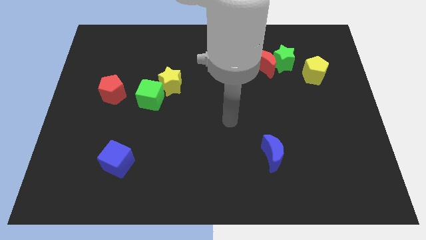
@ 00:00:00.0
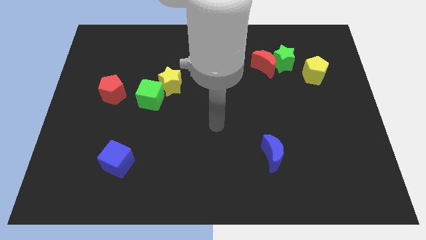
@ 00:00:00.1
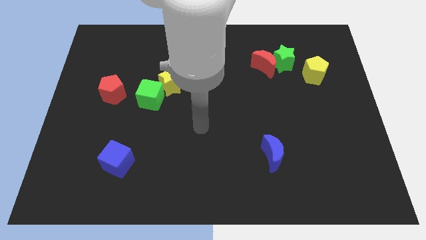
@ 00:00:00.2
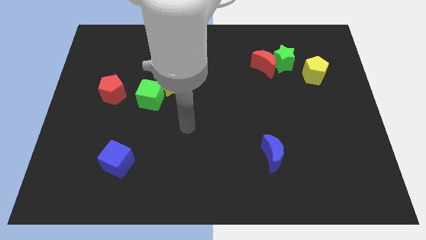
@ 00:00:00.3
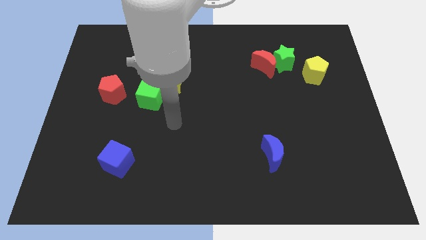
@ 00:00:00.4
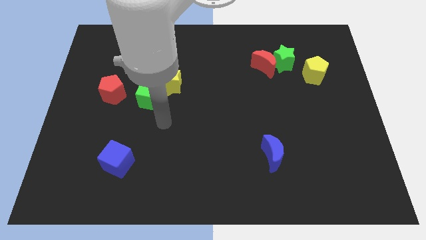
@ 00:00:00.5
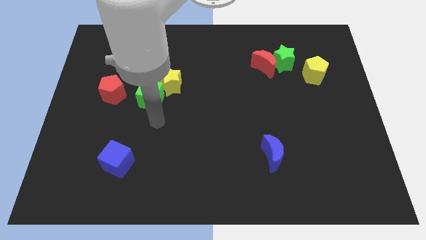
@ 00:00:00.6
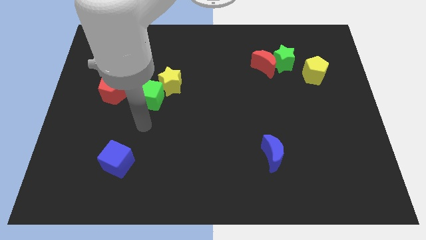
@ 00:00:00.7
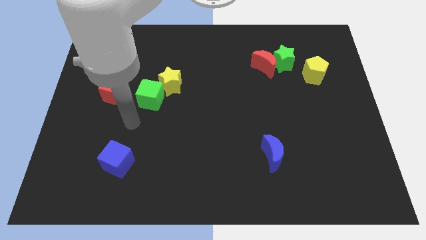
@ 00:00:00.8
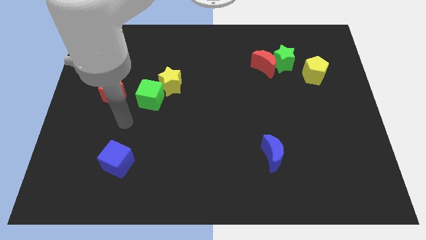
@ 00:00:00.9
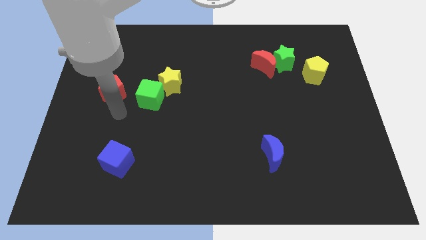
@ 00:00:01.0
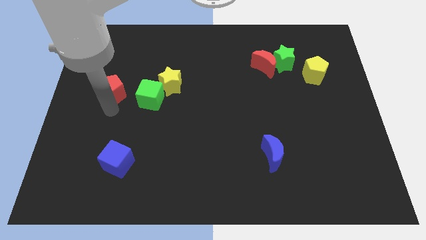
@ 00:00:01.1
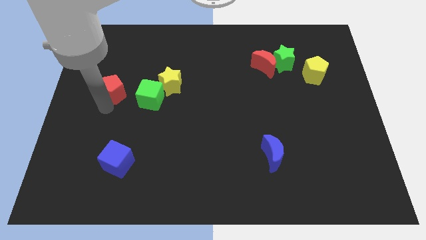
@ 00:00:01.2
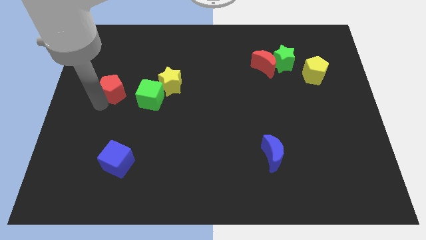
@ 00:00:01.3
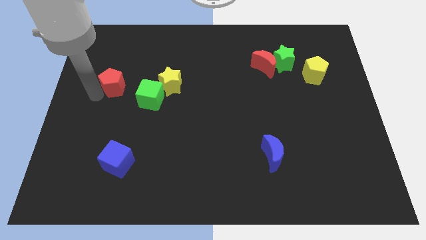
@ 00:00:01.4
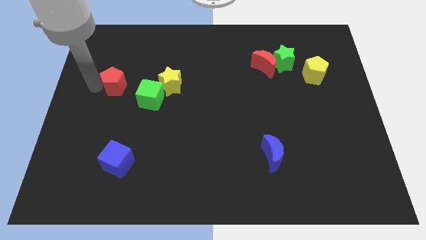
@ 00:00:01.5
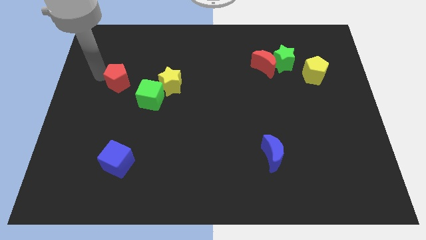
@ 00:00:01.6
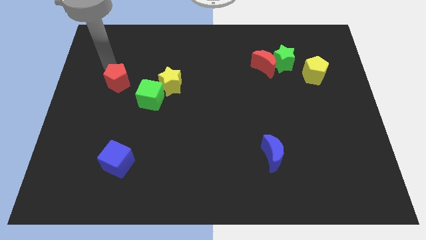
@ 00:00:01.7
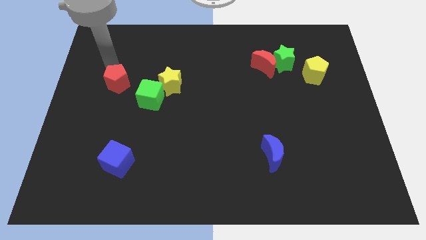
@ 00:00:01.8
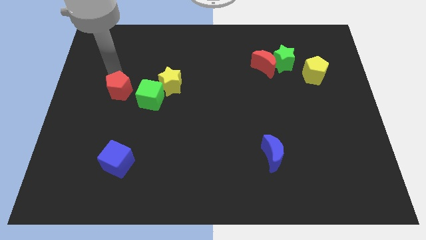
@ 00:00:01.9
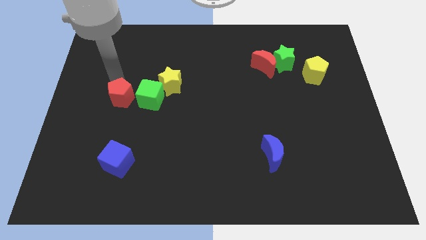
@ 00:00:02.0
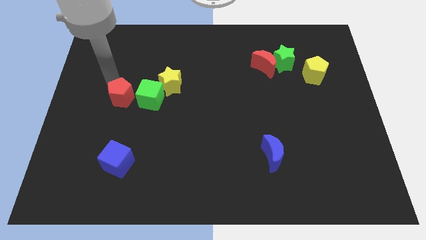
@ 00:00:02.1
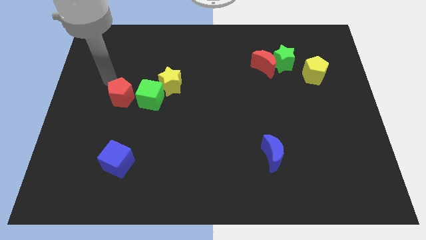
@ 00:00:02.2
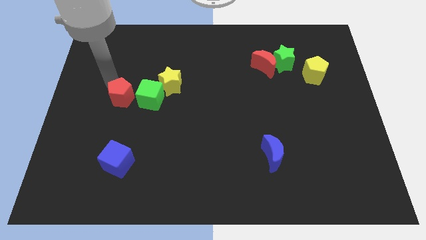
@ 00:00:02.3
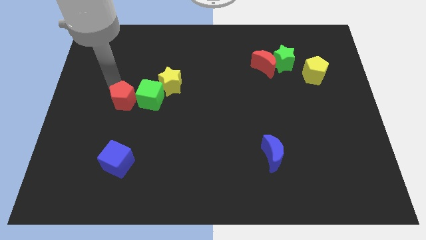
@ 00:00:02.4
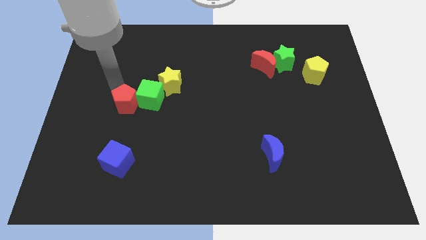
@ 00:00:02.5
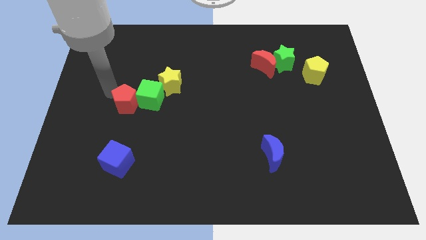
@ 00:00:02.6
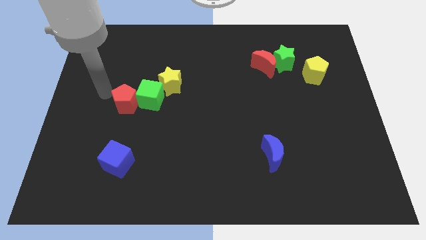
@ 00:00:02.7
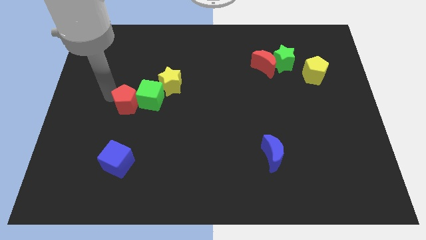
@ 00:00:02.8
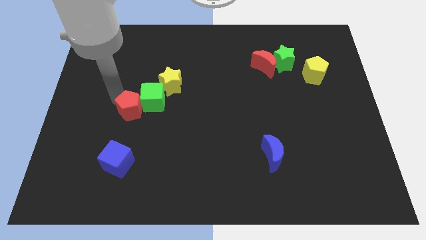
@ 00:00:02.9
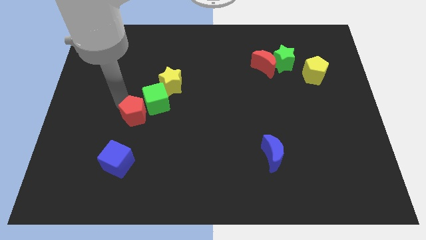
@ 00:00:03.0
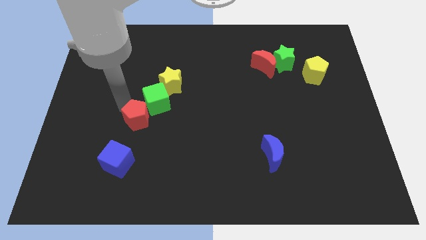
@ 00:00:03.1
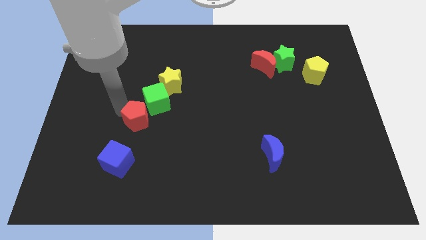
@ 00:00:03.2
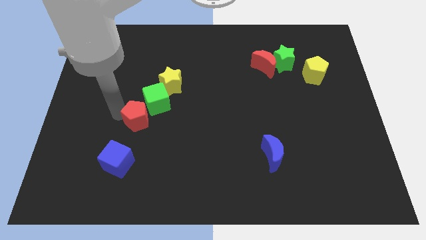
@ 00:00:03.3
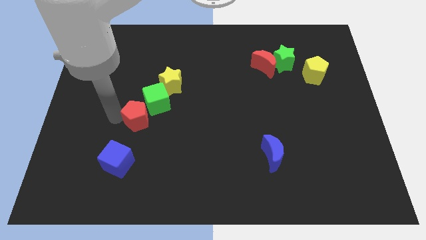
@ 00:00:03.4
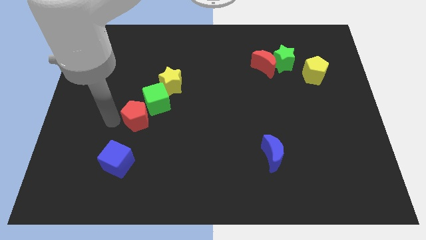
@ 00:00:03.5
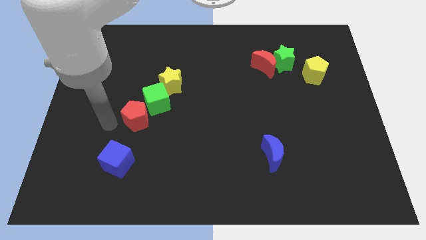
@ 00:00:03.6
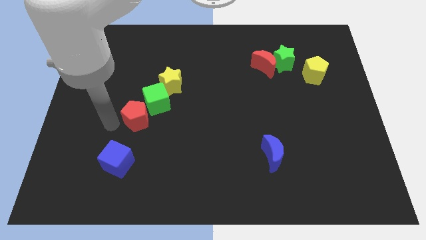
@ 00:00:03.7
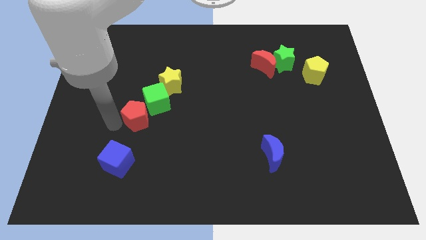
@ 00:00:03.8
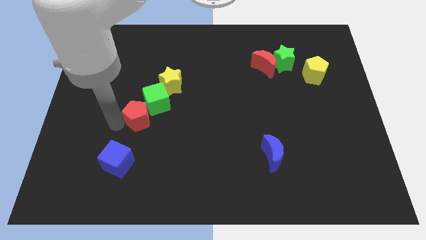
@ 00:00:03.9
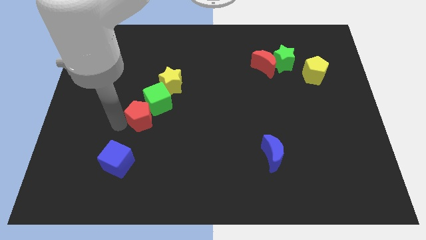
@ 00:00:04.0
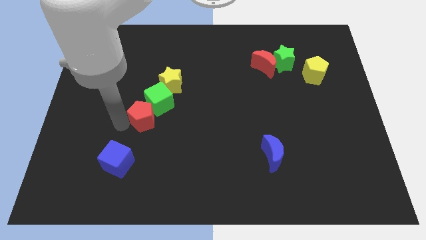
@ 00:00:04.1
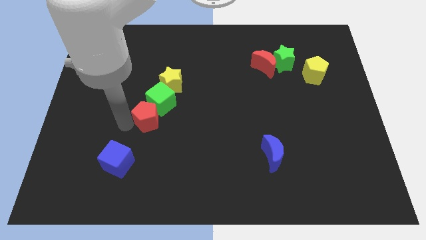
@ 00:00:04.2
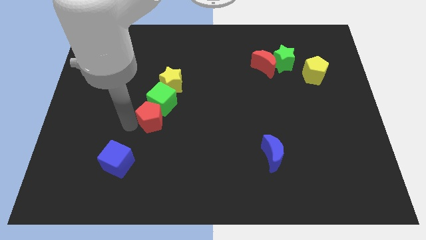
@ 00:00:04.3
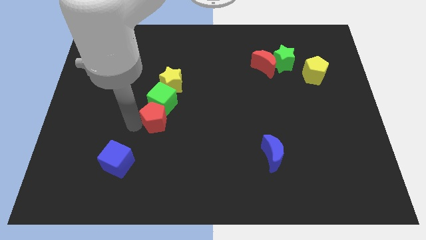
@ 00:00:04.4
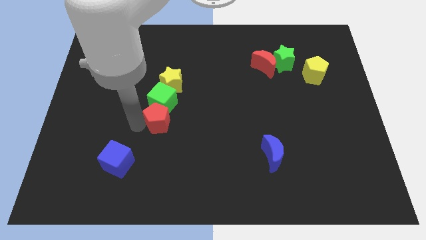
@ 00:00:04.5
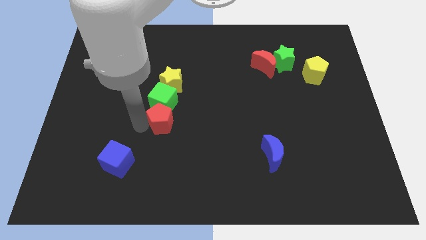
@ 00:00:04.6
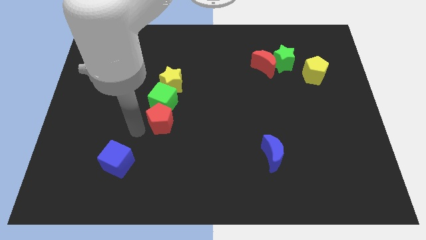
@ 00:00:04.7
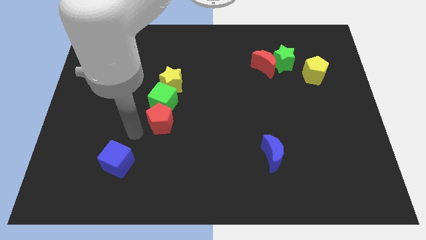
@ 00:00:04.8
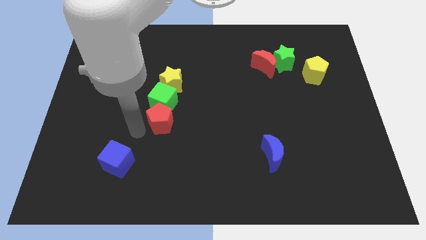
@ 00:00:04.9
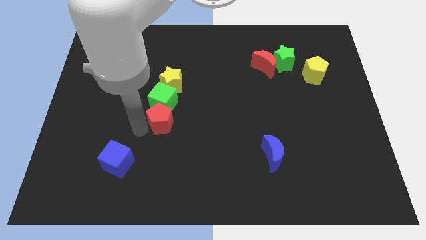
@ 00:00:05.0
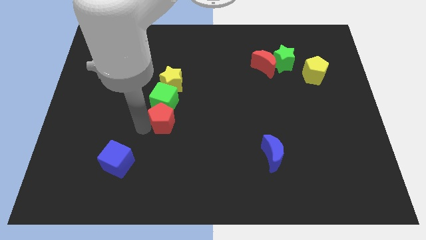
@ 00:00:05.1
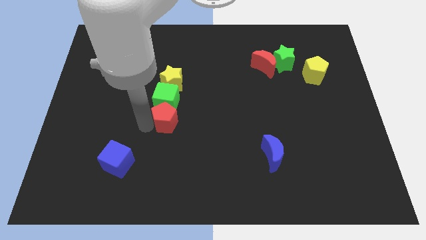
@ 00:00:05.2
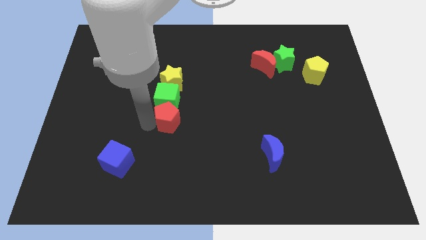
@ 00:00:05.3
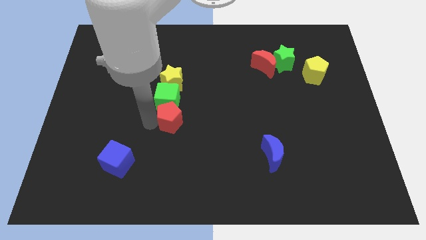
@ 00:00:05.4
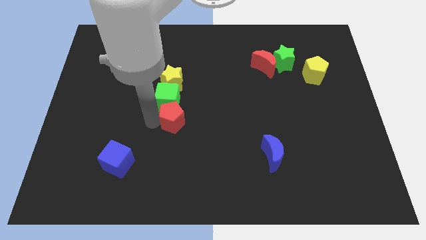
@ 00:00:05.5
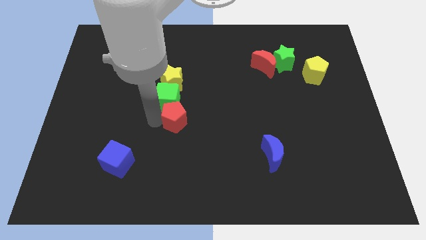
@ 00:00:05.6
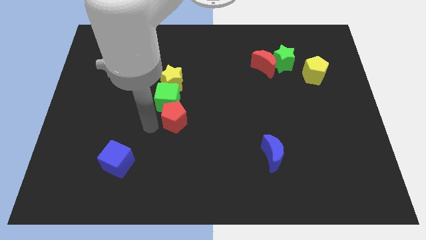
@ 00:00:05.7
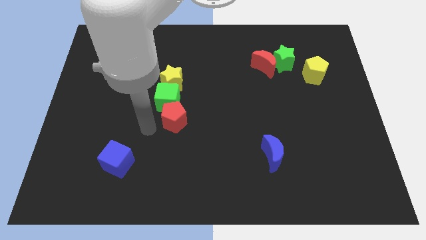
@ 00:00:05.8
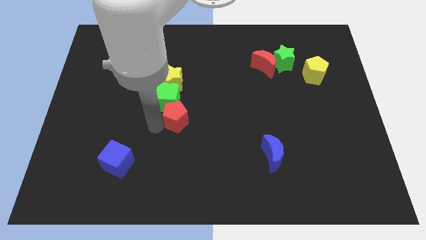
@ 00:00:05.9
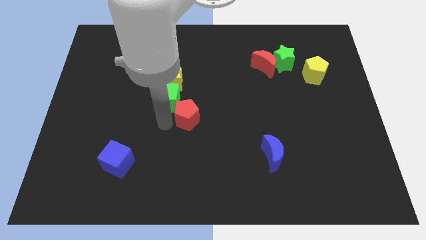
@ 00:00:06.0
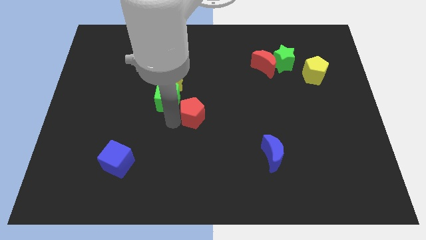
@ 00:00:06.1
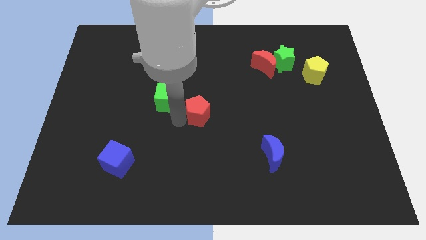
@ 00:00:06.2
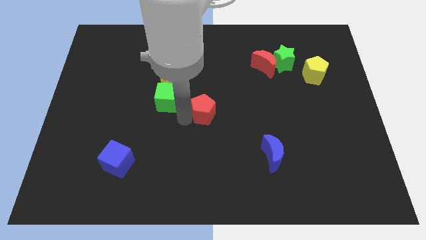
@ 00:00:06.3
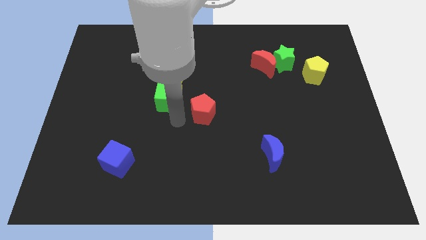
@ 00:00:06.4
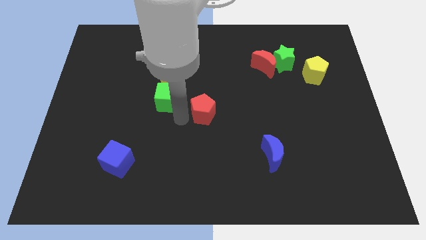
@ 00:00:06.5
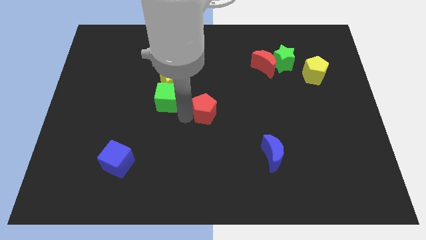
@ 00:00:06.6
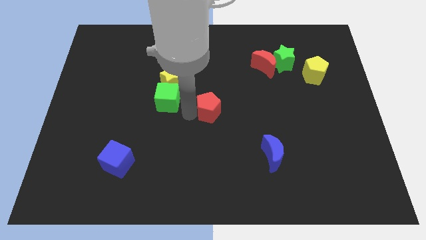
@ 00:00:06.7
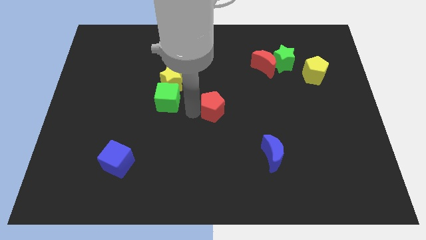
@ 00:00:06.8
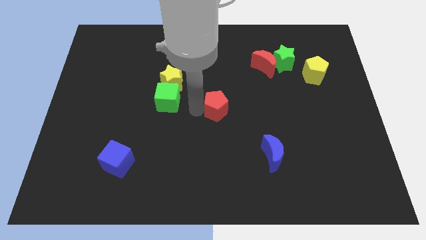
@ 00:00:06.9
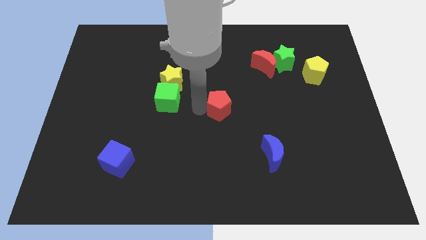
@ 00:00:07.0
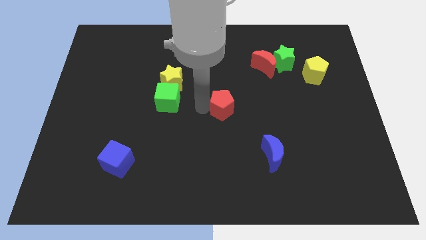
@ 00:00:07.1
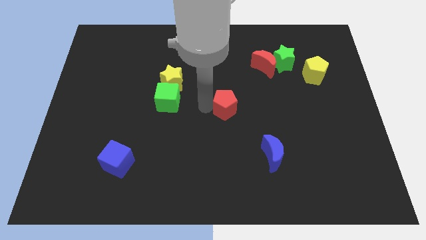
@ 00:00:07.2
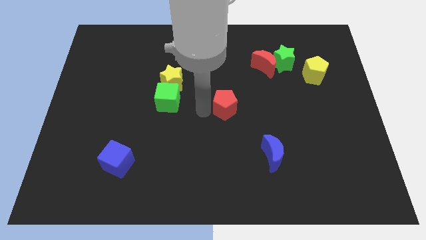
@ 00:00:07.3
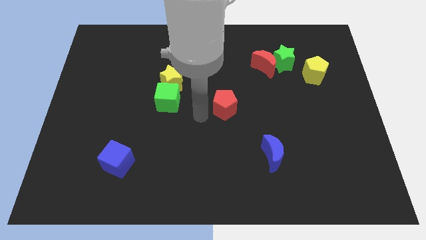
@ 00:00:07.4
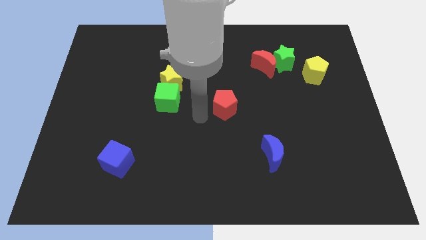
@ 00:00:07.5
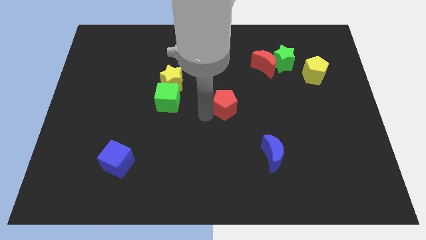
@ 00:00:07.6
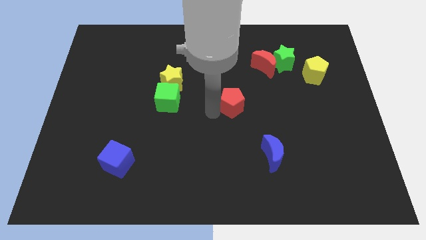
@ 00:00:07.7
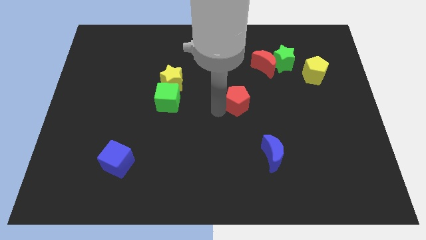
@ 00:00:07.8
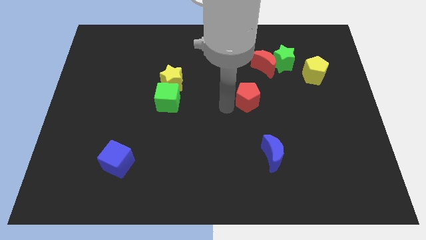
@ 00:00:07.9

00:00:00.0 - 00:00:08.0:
push the red pentagon to the bottom side of the red moon
